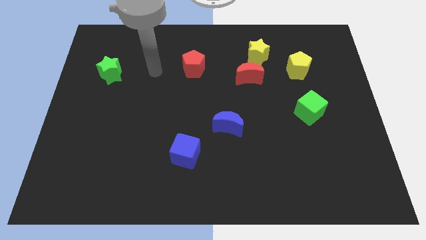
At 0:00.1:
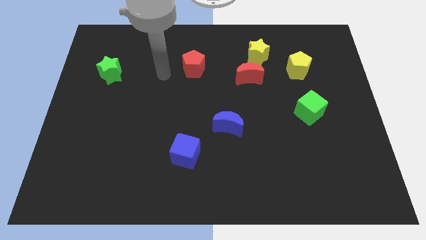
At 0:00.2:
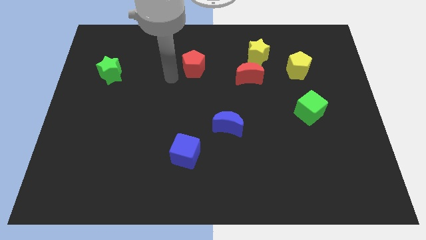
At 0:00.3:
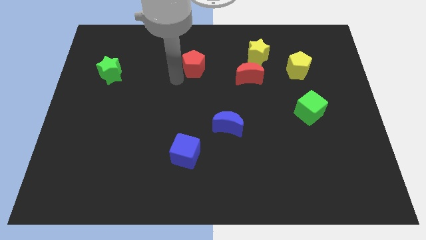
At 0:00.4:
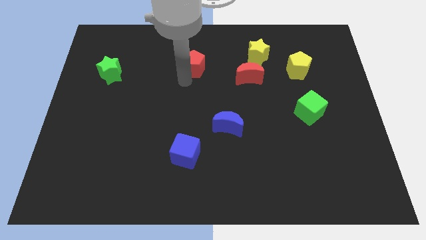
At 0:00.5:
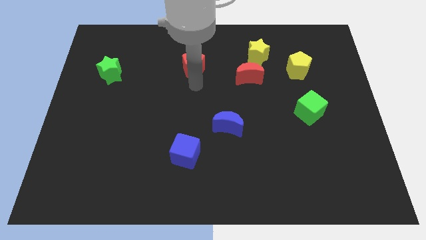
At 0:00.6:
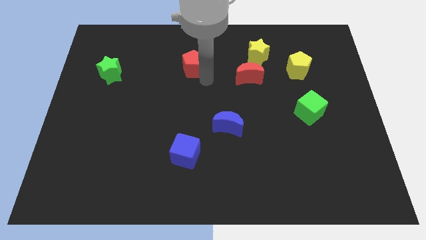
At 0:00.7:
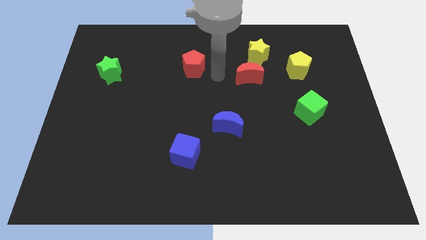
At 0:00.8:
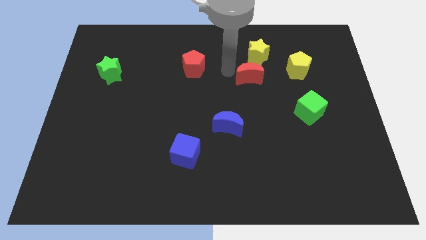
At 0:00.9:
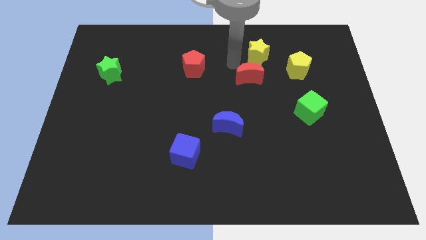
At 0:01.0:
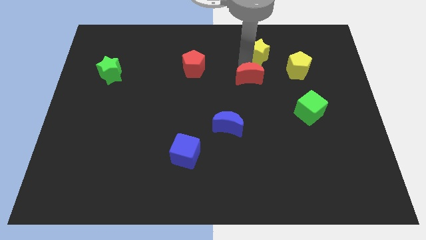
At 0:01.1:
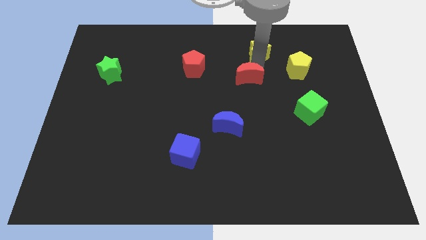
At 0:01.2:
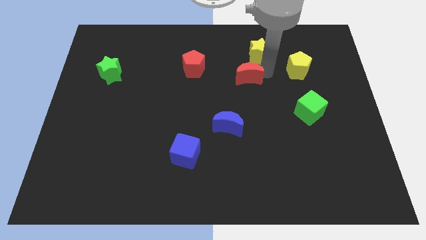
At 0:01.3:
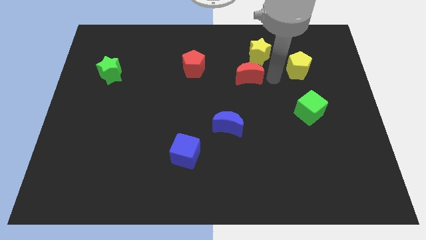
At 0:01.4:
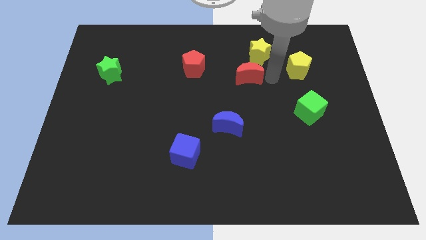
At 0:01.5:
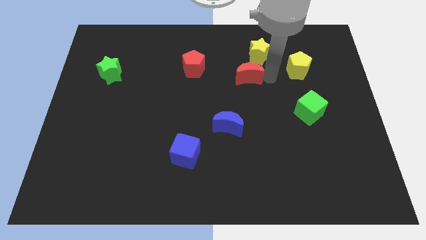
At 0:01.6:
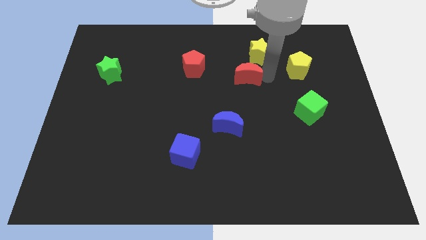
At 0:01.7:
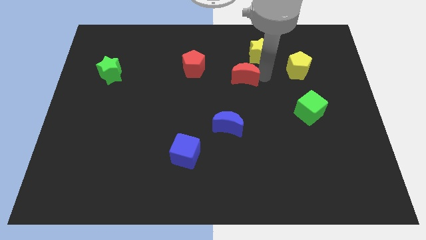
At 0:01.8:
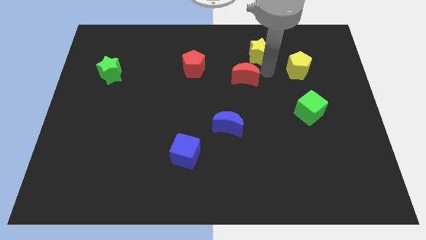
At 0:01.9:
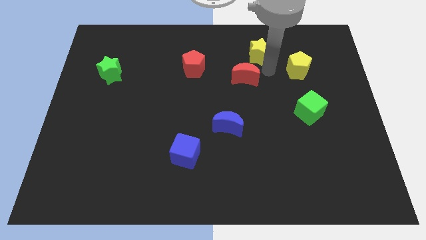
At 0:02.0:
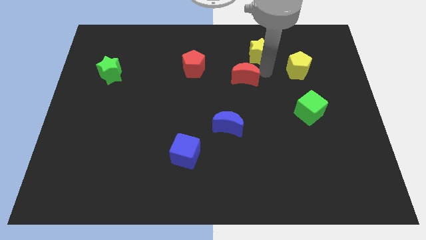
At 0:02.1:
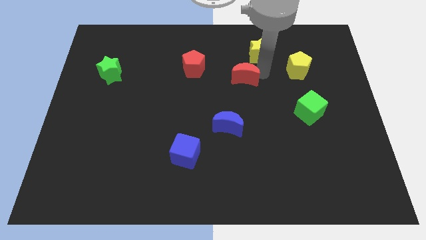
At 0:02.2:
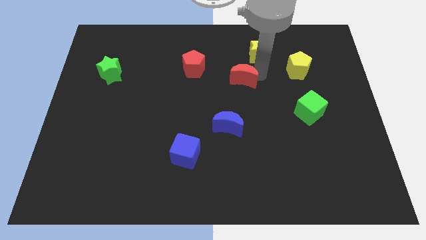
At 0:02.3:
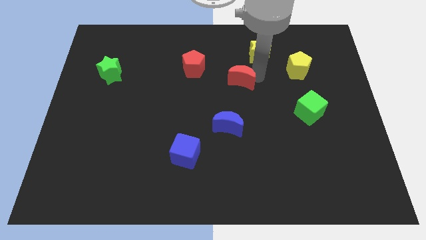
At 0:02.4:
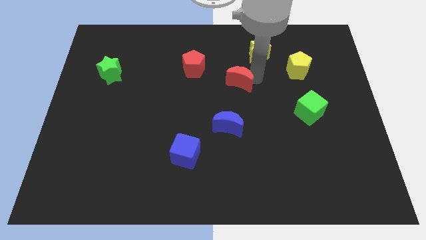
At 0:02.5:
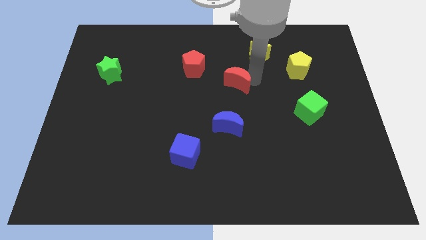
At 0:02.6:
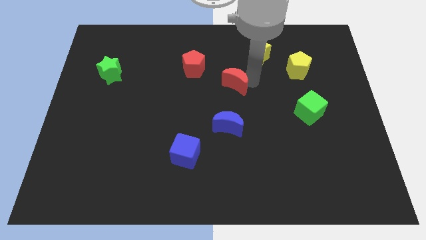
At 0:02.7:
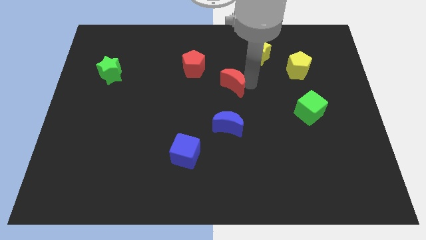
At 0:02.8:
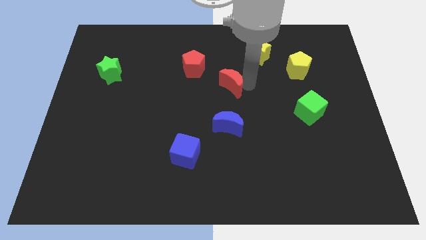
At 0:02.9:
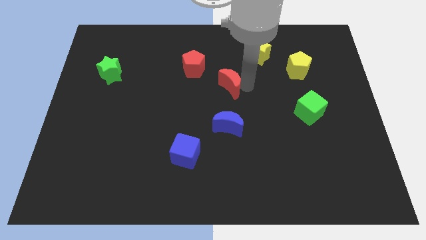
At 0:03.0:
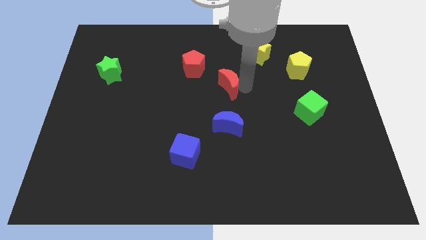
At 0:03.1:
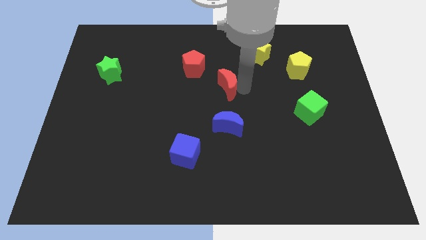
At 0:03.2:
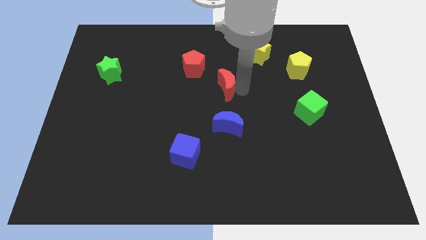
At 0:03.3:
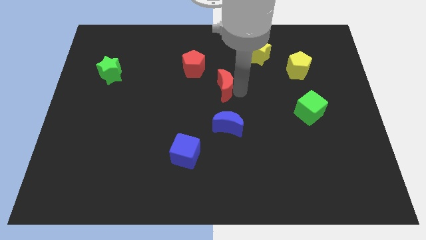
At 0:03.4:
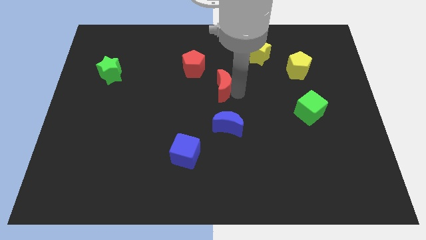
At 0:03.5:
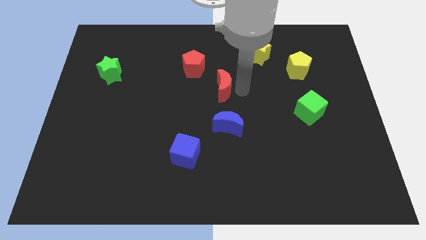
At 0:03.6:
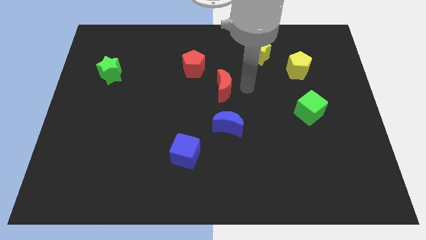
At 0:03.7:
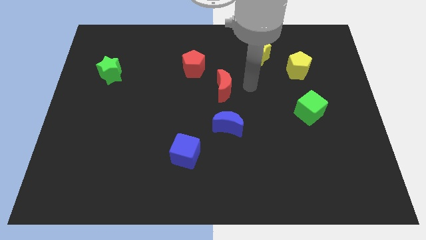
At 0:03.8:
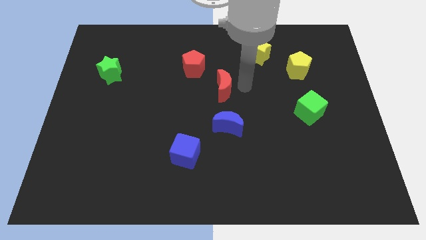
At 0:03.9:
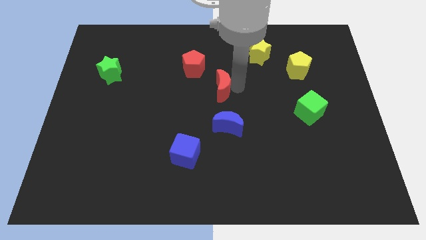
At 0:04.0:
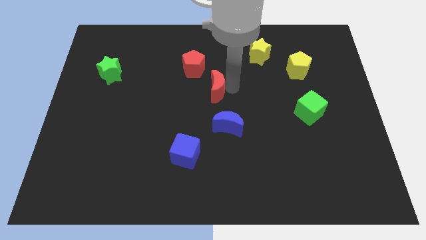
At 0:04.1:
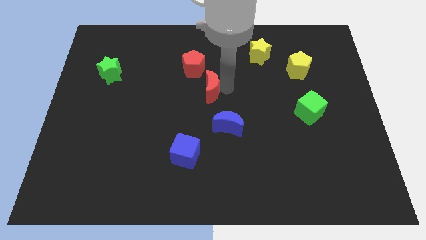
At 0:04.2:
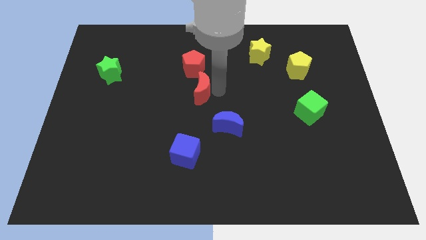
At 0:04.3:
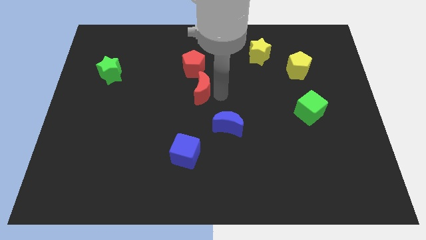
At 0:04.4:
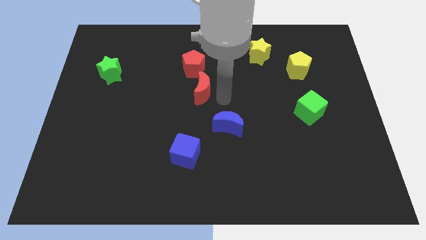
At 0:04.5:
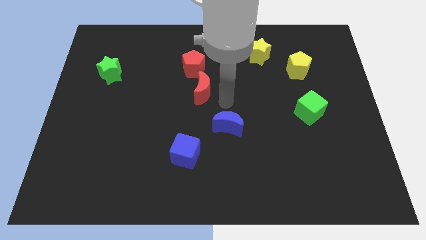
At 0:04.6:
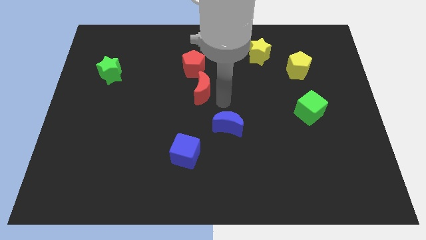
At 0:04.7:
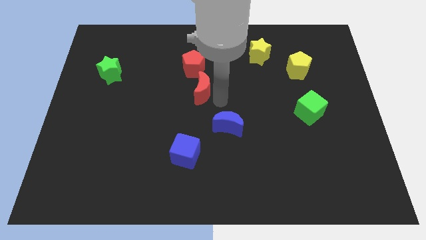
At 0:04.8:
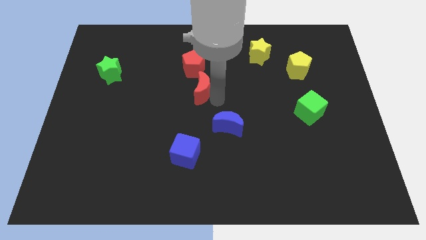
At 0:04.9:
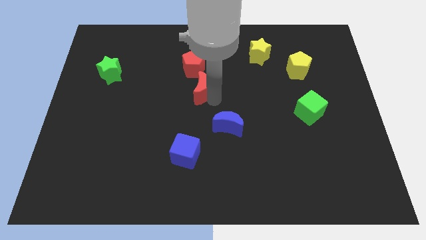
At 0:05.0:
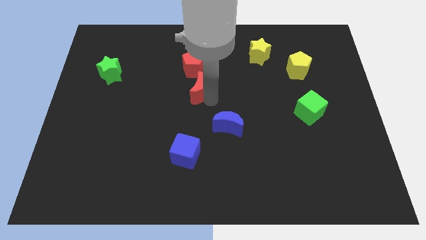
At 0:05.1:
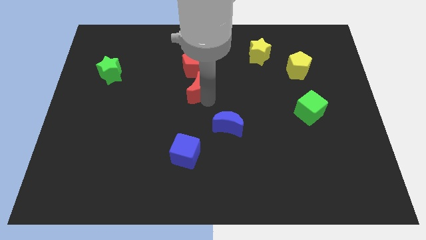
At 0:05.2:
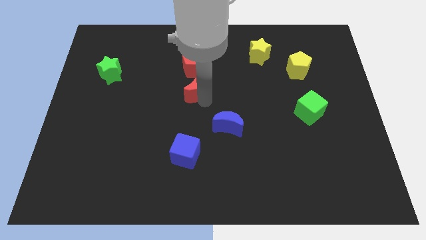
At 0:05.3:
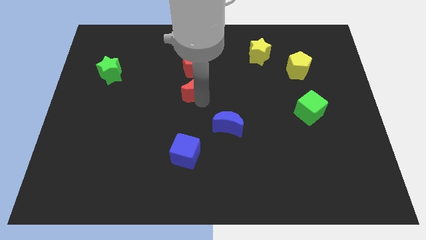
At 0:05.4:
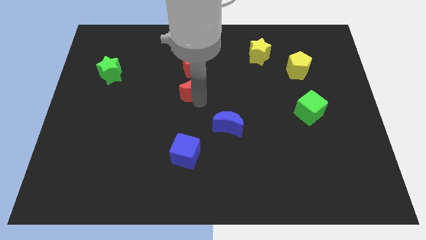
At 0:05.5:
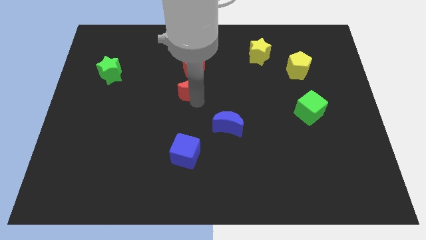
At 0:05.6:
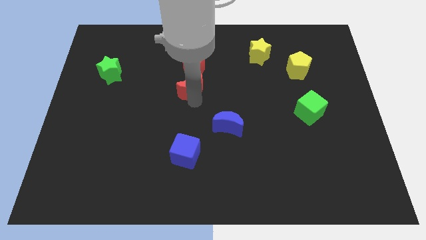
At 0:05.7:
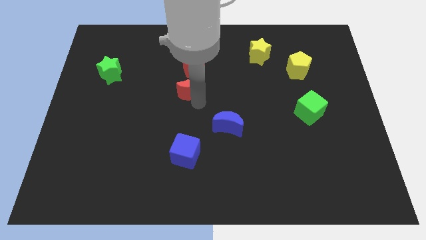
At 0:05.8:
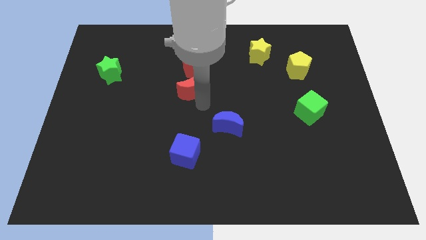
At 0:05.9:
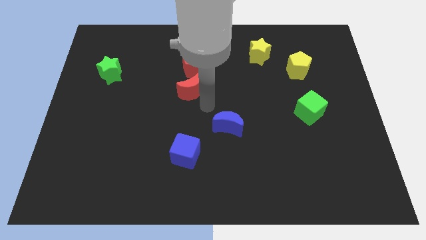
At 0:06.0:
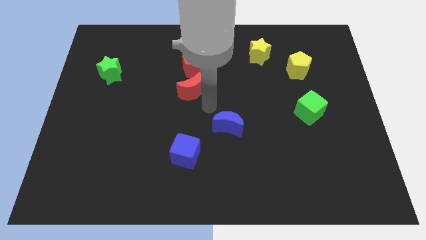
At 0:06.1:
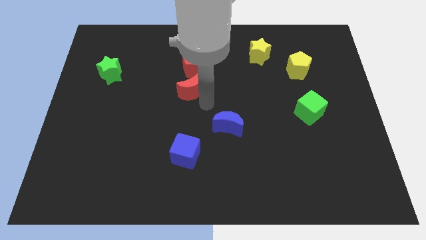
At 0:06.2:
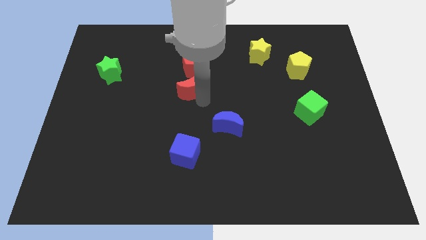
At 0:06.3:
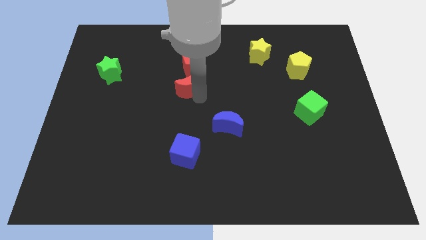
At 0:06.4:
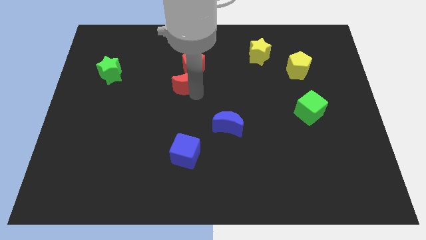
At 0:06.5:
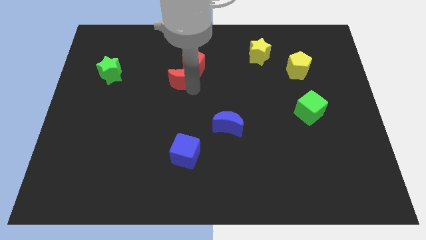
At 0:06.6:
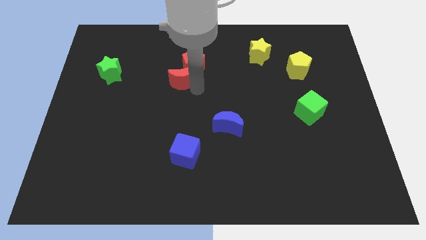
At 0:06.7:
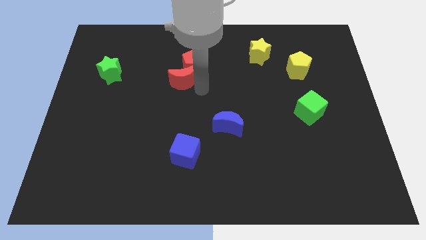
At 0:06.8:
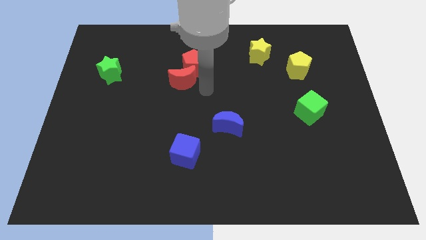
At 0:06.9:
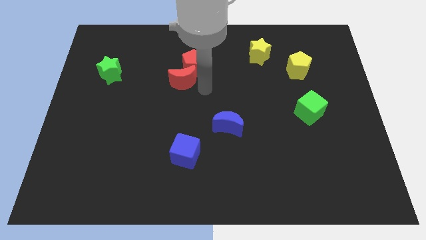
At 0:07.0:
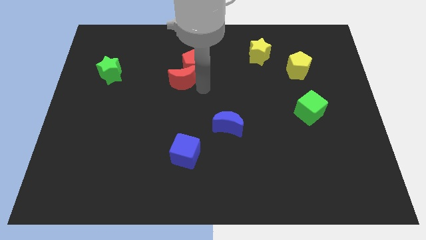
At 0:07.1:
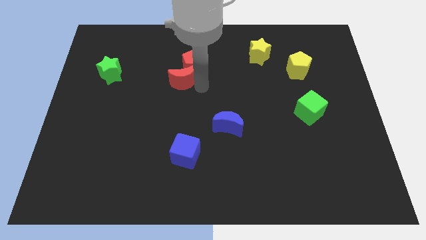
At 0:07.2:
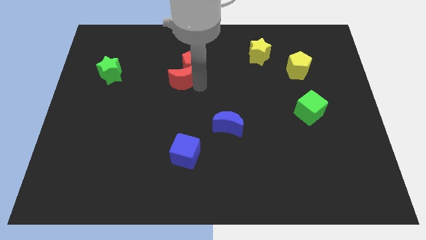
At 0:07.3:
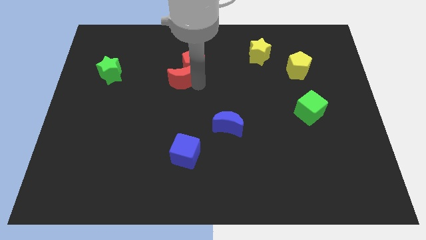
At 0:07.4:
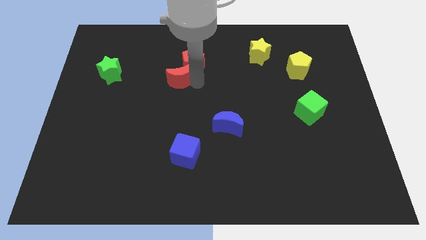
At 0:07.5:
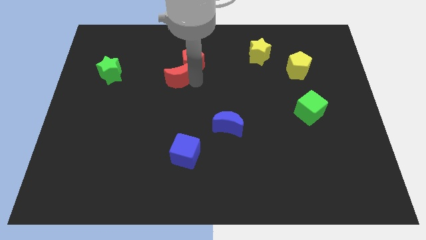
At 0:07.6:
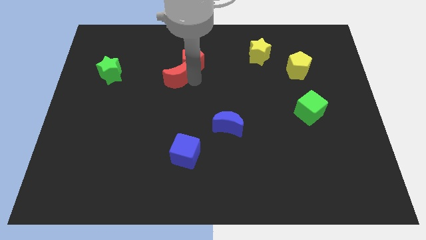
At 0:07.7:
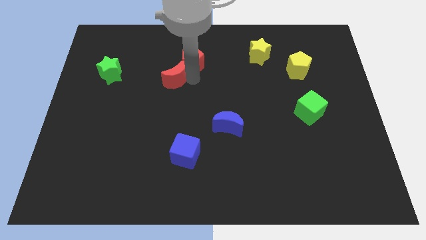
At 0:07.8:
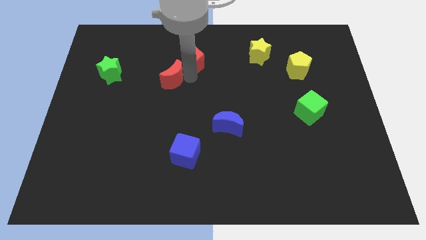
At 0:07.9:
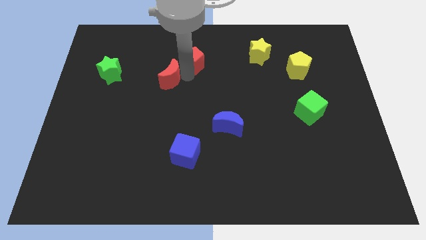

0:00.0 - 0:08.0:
put the red moon to the left side of the red pentagon
